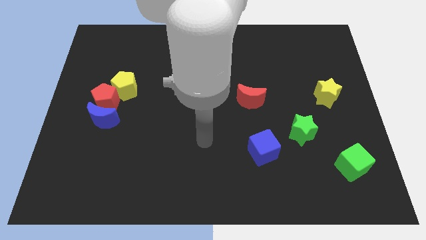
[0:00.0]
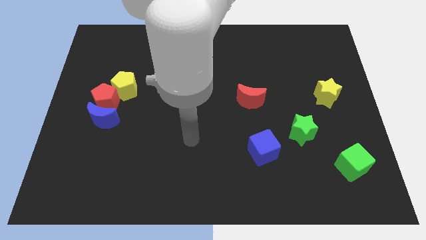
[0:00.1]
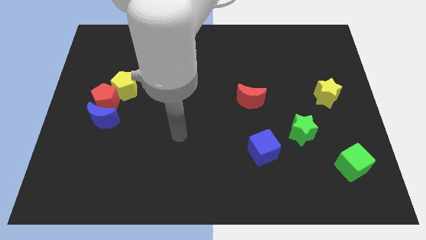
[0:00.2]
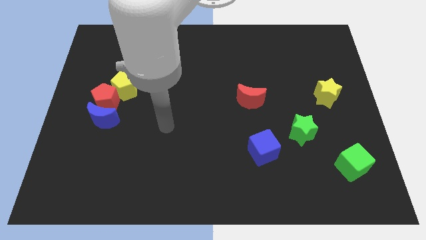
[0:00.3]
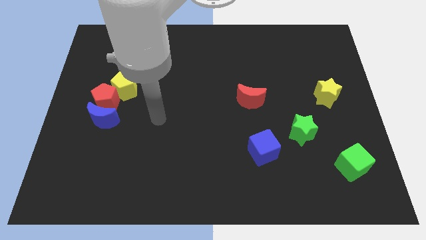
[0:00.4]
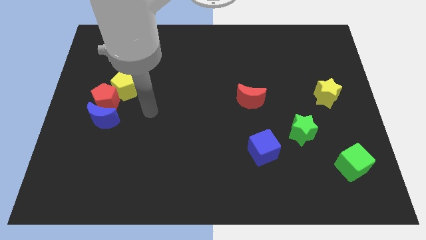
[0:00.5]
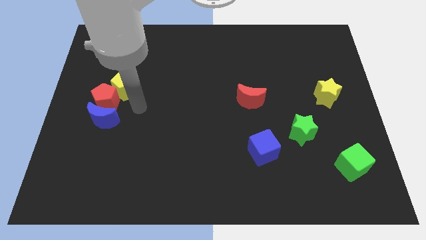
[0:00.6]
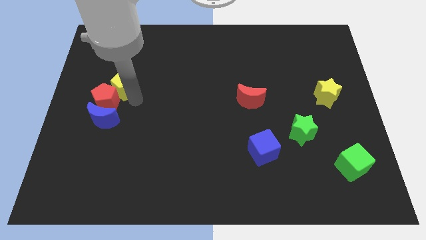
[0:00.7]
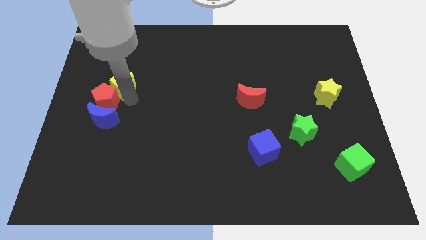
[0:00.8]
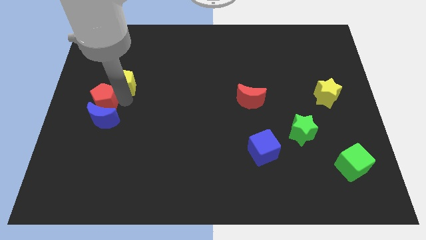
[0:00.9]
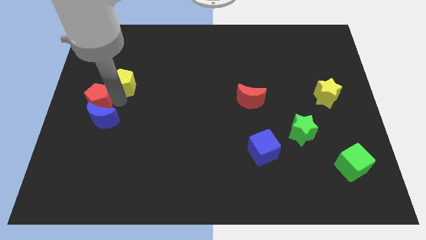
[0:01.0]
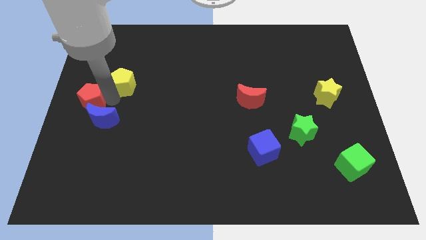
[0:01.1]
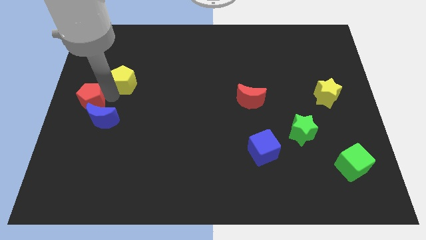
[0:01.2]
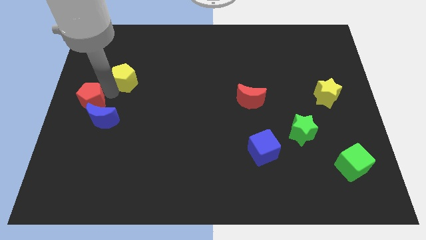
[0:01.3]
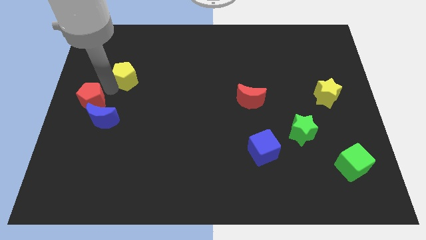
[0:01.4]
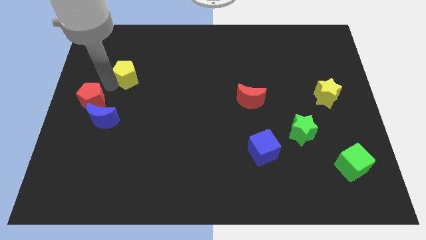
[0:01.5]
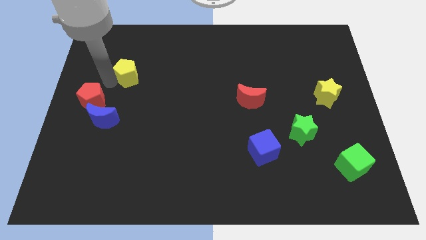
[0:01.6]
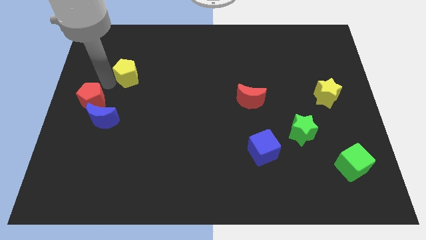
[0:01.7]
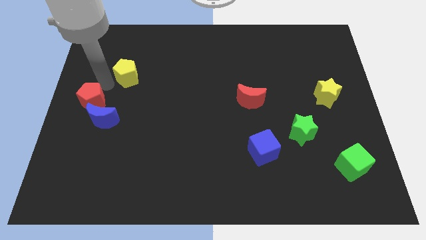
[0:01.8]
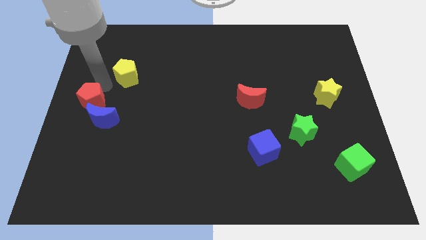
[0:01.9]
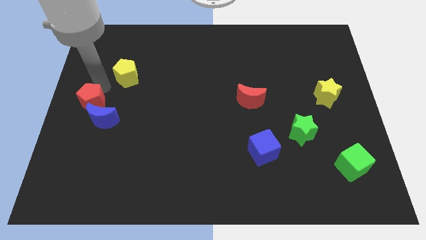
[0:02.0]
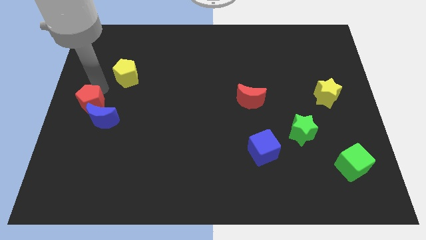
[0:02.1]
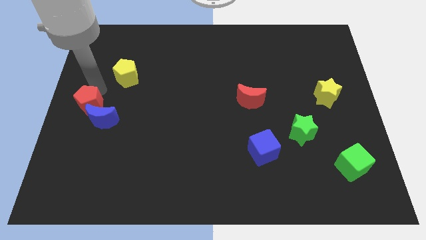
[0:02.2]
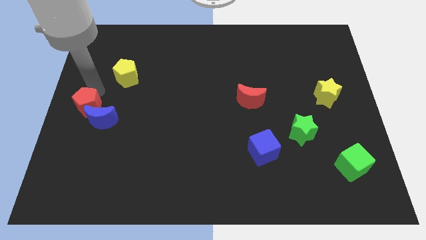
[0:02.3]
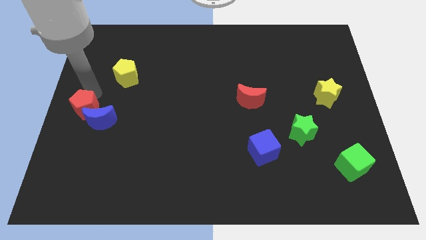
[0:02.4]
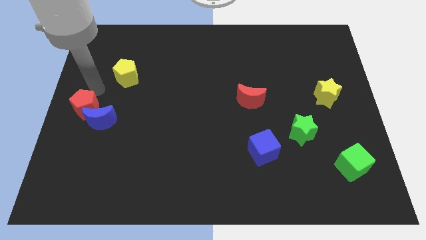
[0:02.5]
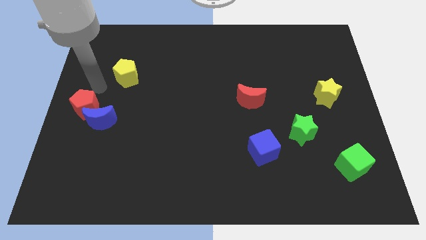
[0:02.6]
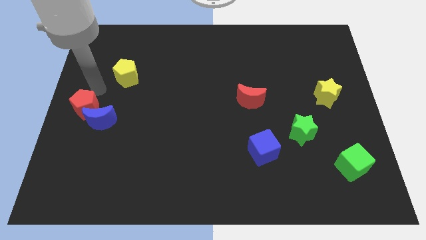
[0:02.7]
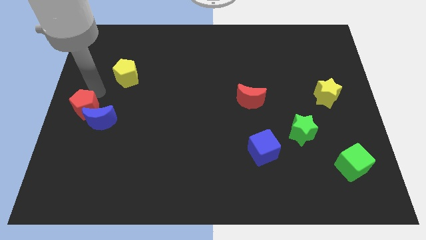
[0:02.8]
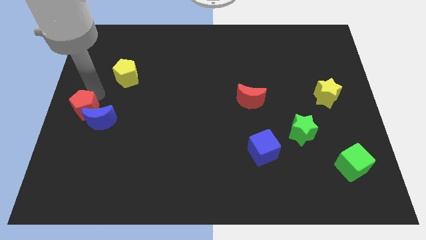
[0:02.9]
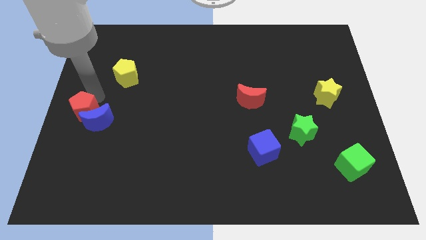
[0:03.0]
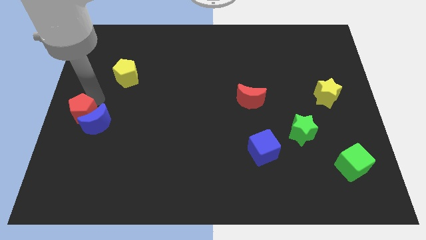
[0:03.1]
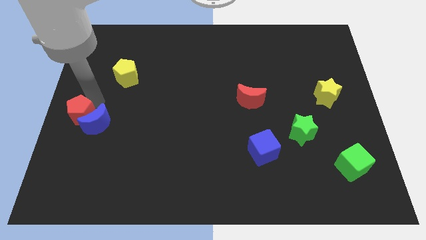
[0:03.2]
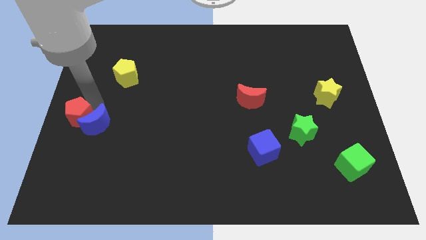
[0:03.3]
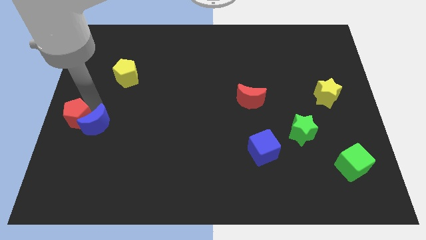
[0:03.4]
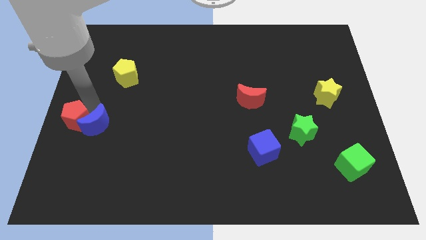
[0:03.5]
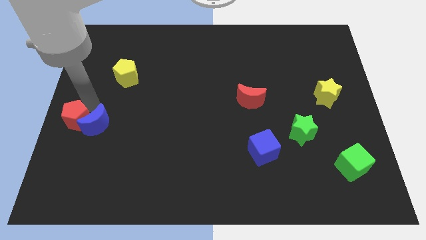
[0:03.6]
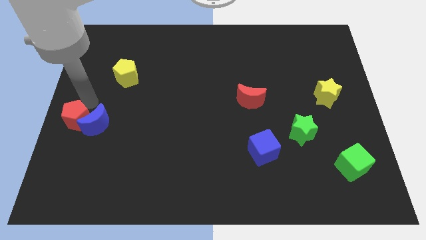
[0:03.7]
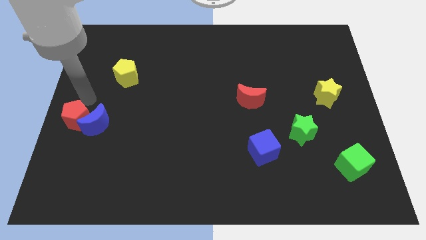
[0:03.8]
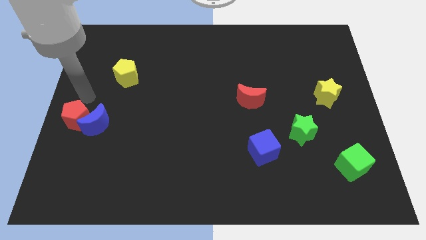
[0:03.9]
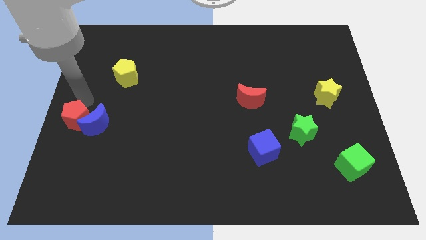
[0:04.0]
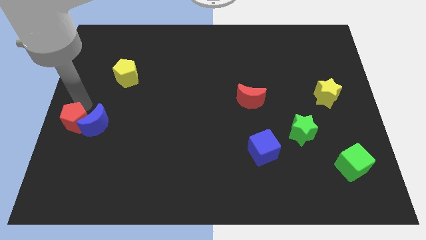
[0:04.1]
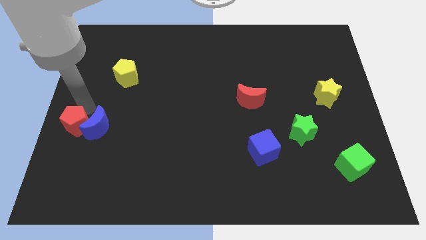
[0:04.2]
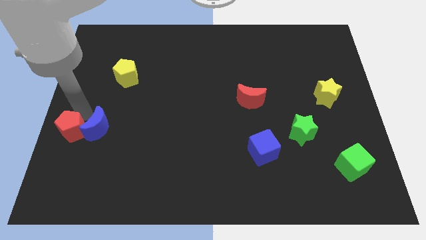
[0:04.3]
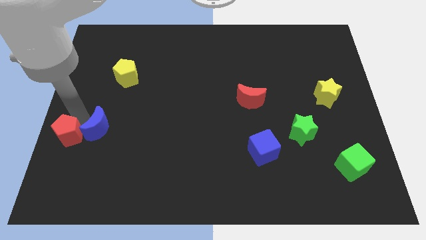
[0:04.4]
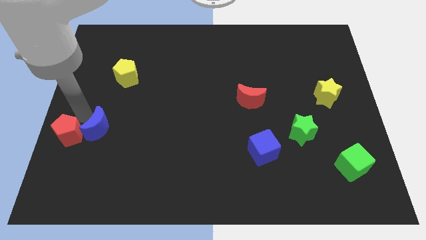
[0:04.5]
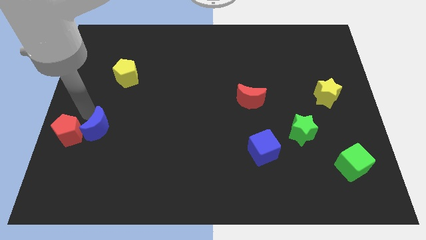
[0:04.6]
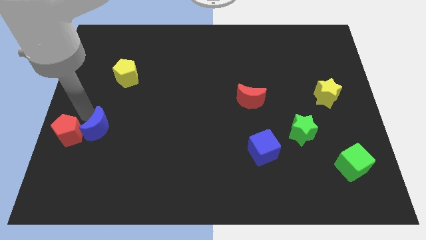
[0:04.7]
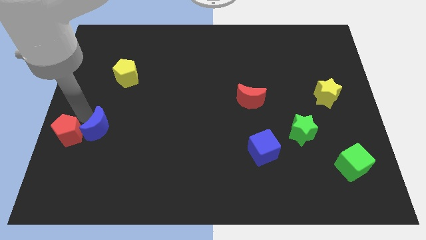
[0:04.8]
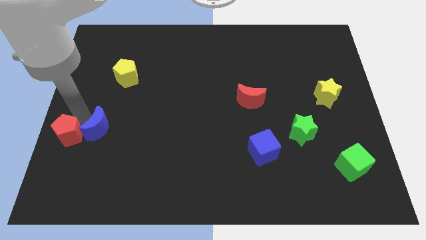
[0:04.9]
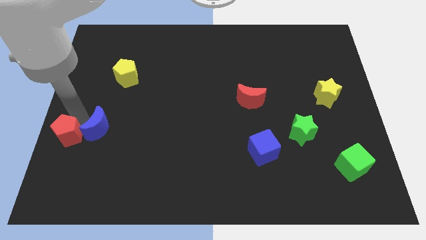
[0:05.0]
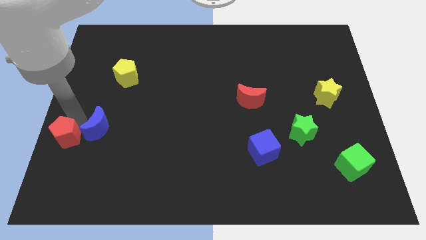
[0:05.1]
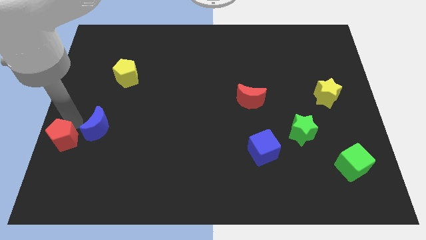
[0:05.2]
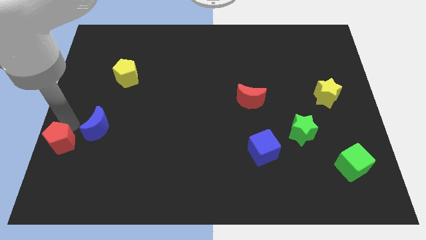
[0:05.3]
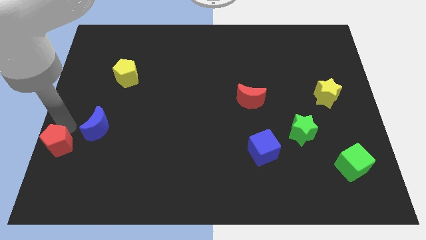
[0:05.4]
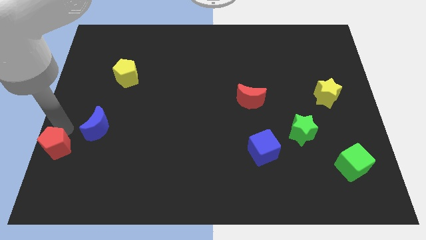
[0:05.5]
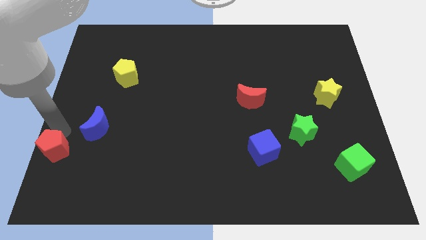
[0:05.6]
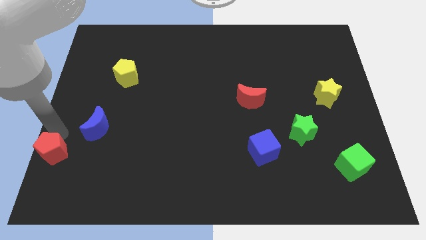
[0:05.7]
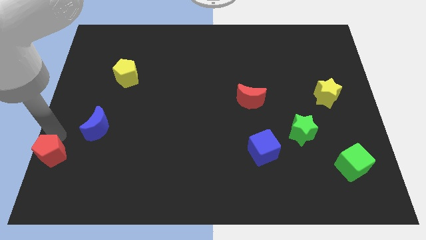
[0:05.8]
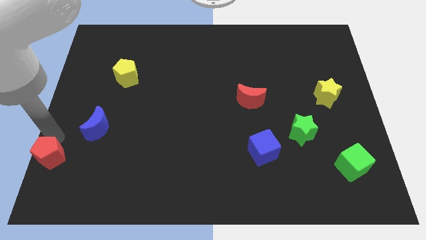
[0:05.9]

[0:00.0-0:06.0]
move the red pentagon to the lower left corner
